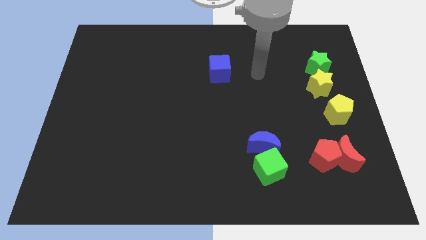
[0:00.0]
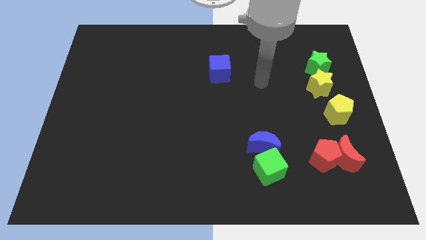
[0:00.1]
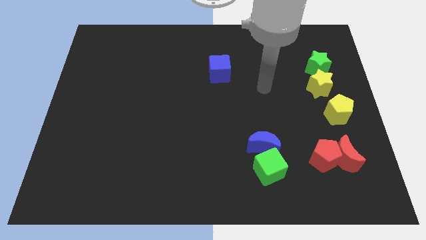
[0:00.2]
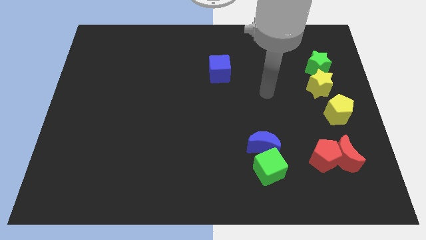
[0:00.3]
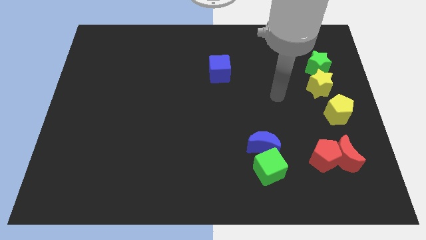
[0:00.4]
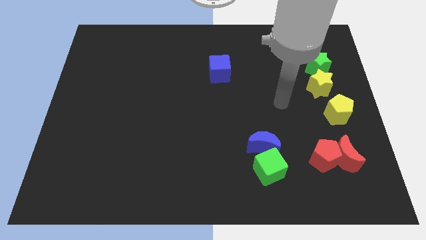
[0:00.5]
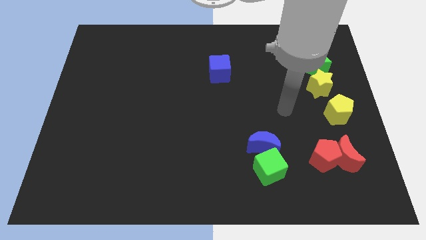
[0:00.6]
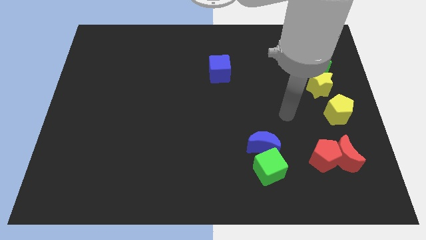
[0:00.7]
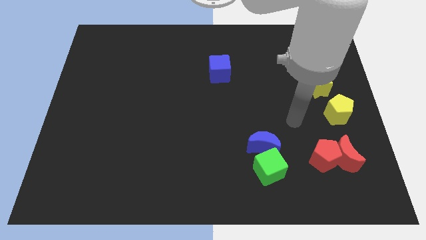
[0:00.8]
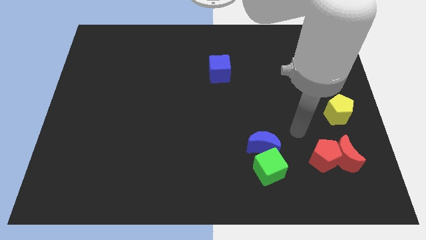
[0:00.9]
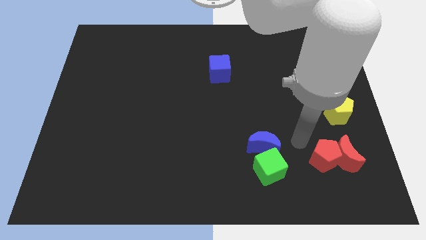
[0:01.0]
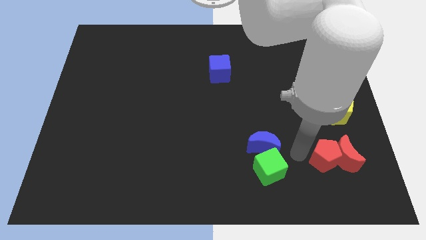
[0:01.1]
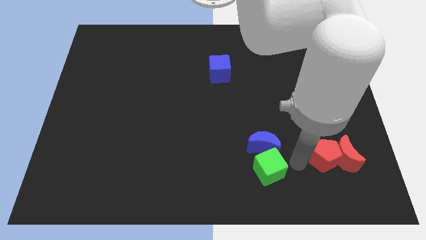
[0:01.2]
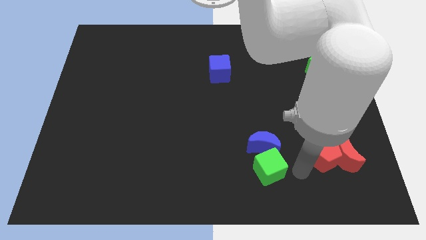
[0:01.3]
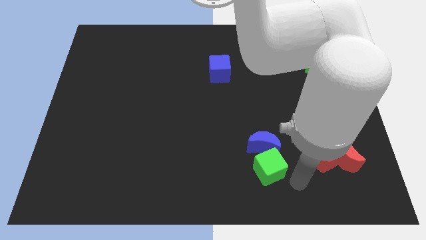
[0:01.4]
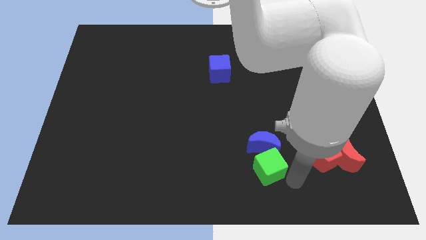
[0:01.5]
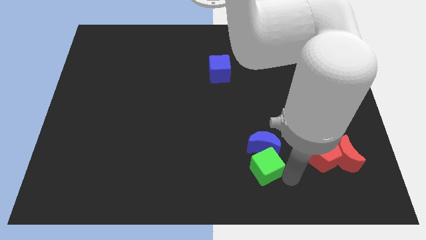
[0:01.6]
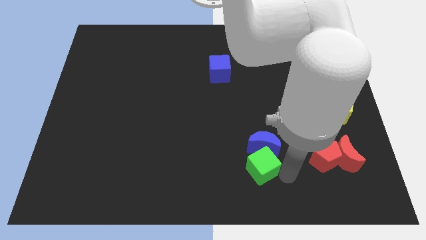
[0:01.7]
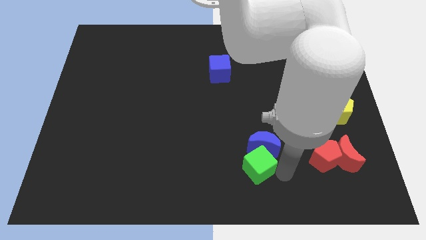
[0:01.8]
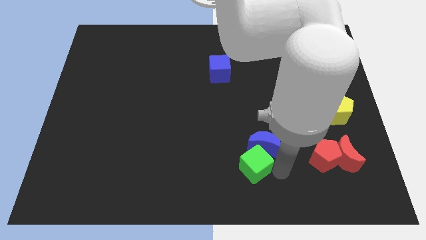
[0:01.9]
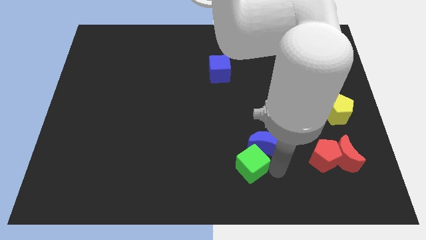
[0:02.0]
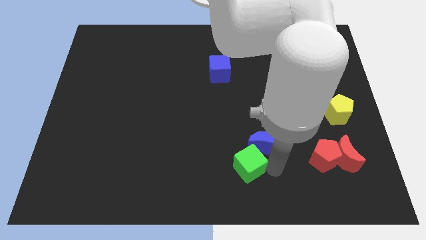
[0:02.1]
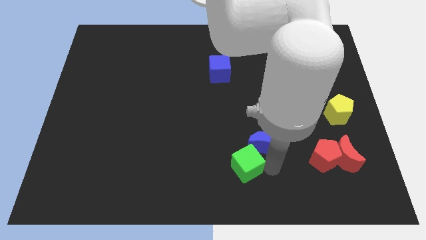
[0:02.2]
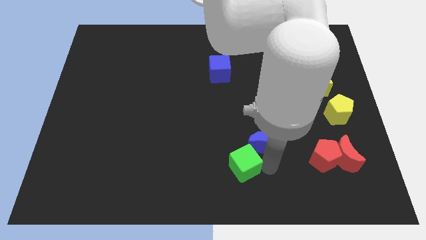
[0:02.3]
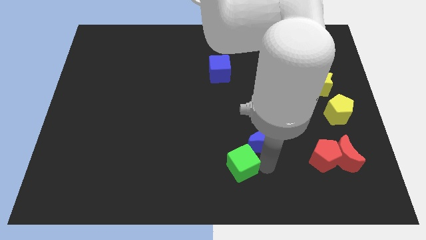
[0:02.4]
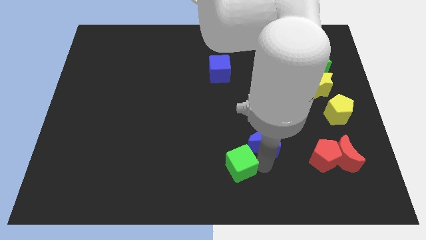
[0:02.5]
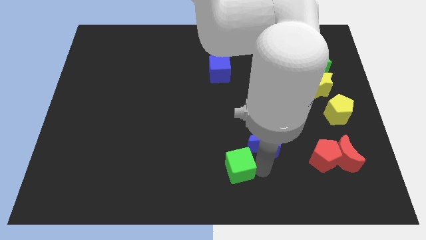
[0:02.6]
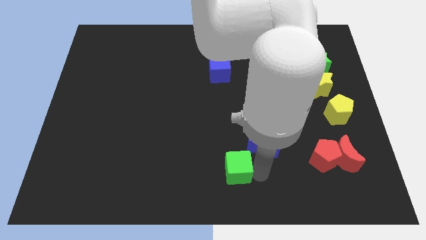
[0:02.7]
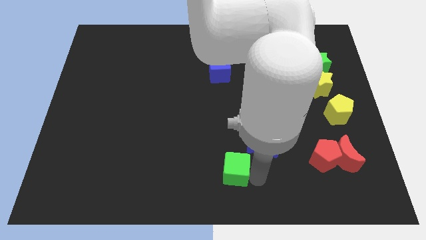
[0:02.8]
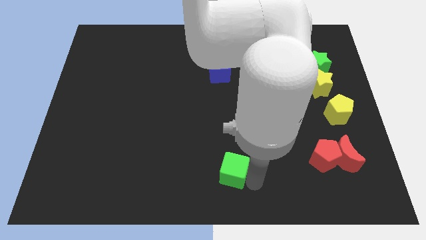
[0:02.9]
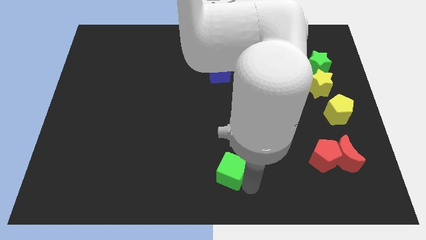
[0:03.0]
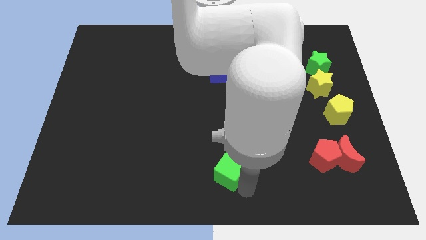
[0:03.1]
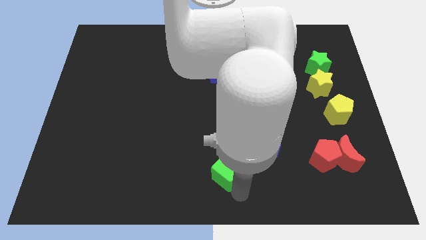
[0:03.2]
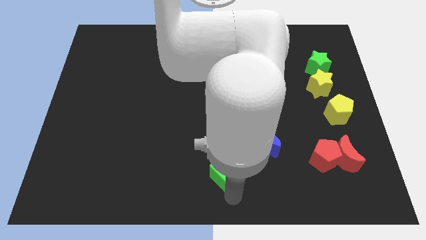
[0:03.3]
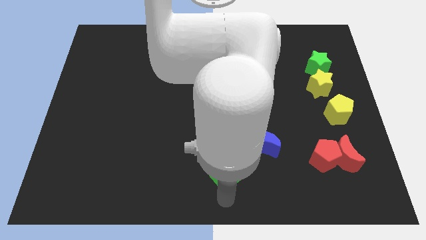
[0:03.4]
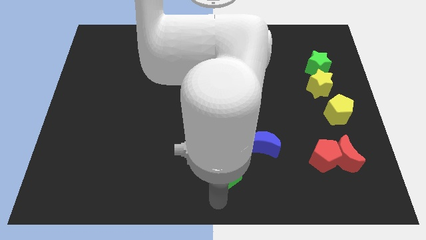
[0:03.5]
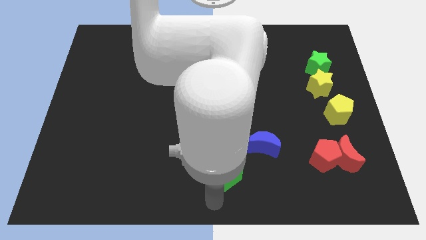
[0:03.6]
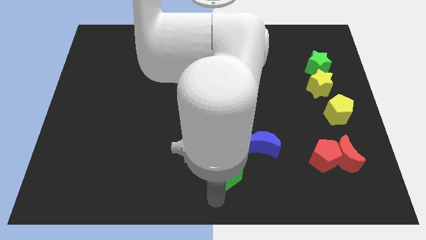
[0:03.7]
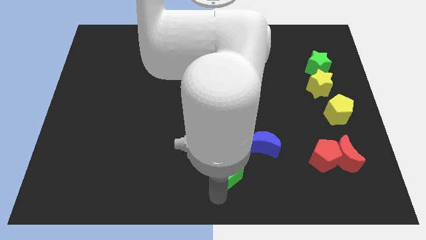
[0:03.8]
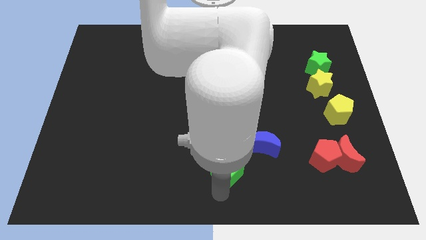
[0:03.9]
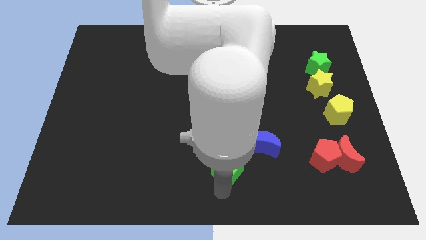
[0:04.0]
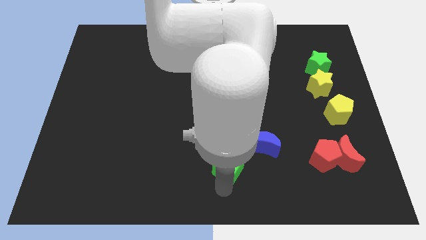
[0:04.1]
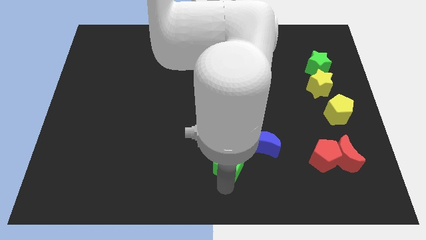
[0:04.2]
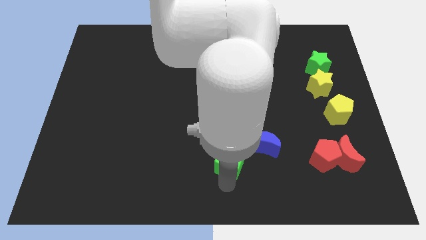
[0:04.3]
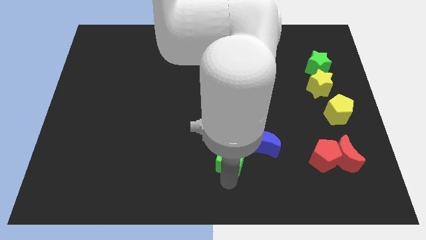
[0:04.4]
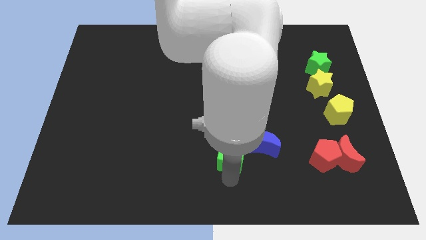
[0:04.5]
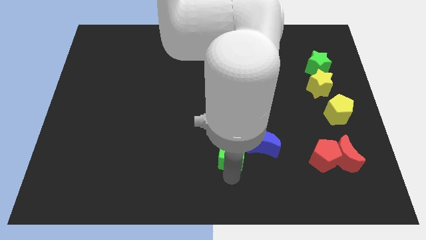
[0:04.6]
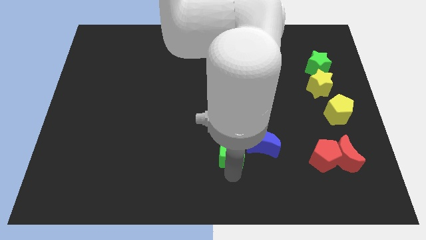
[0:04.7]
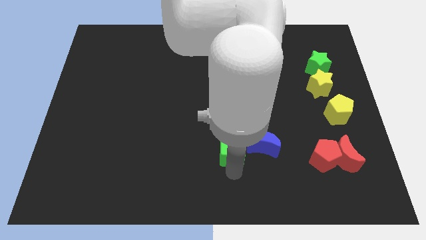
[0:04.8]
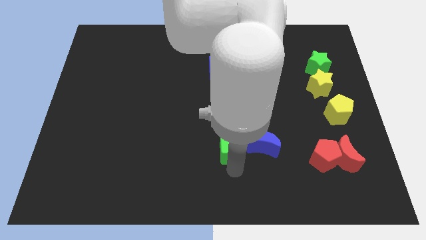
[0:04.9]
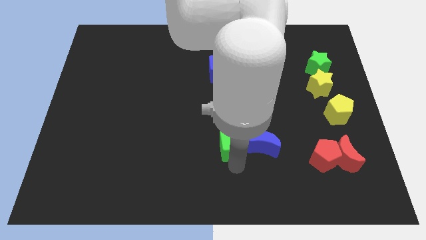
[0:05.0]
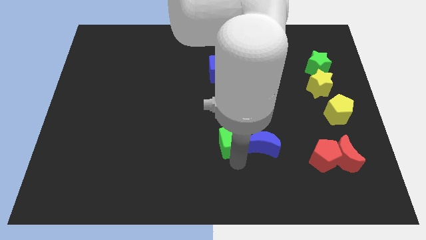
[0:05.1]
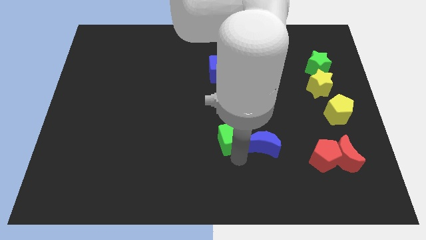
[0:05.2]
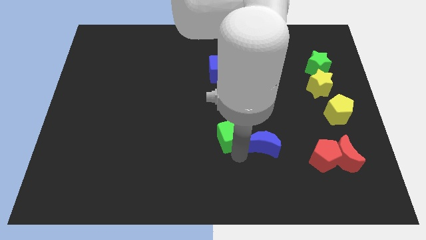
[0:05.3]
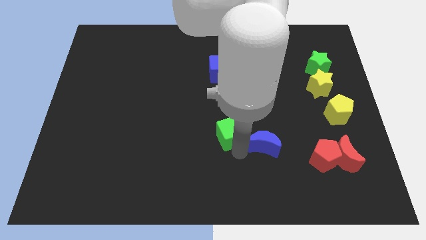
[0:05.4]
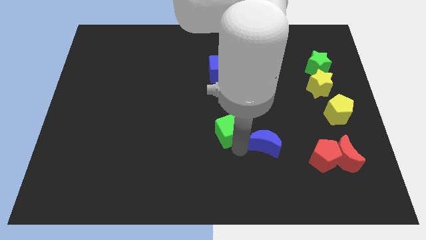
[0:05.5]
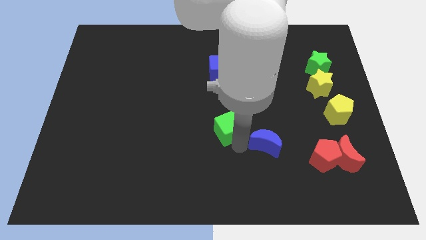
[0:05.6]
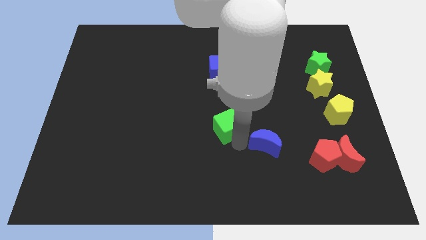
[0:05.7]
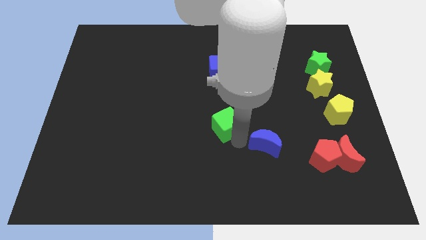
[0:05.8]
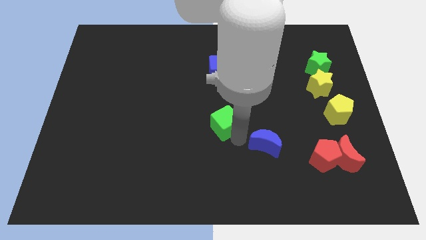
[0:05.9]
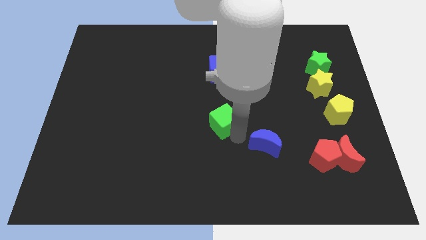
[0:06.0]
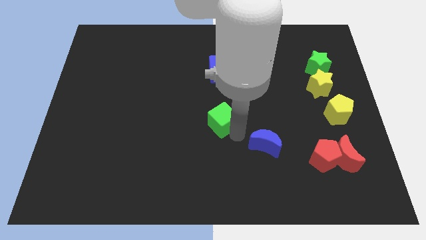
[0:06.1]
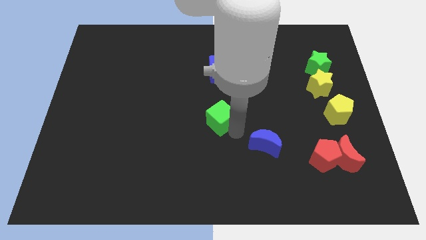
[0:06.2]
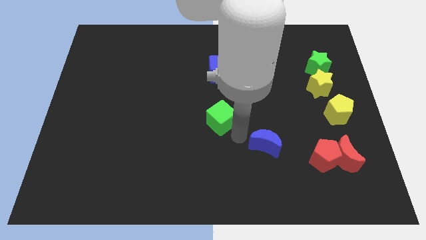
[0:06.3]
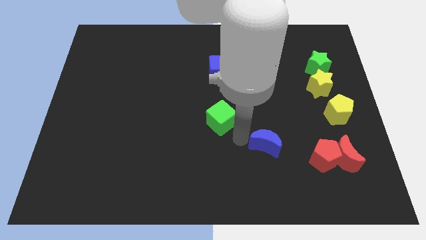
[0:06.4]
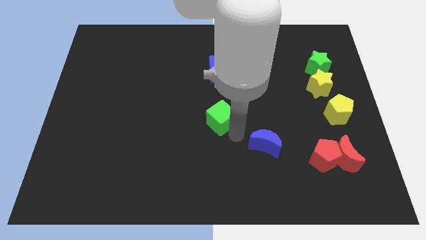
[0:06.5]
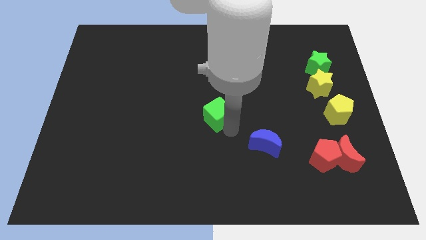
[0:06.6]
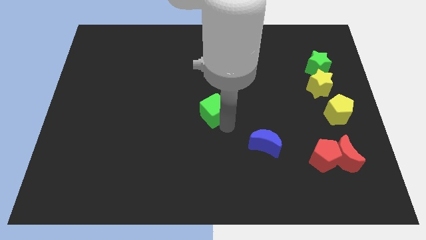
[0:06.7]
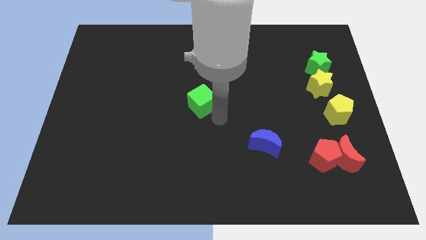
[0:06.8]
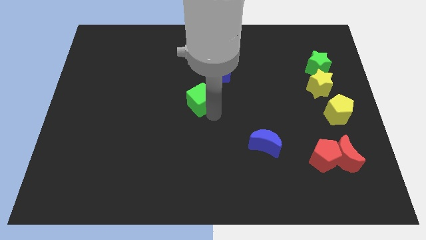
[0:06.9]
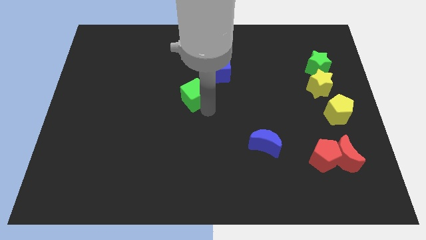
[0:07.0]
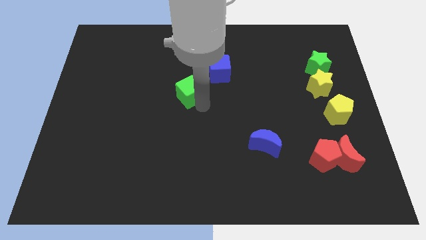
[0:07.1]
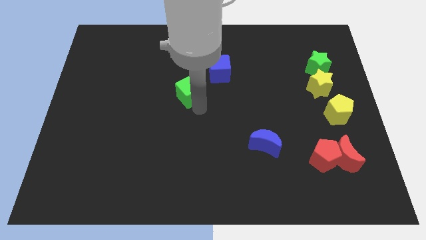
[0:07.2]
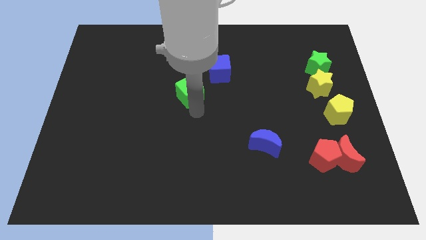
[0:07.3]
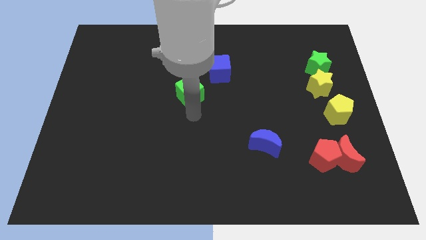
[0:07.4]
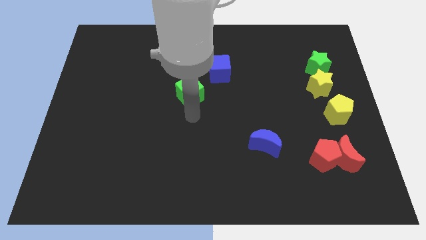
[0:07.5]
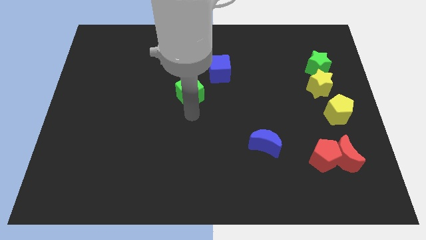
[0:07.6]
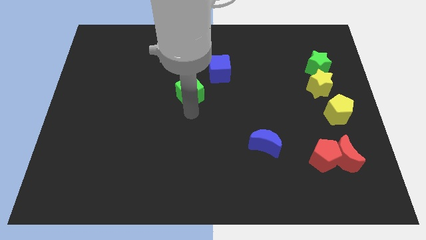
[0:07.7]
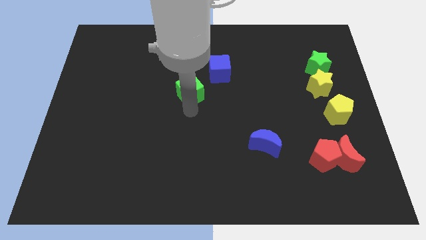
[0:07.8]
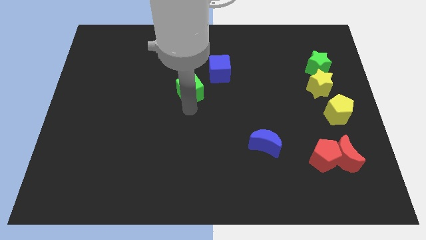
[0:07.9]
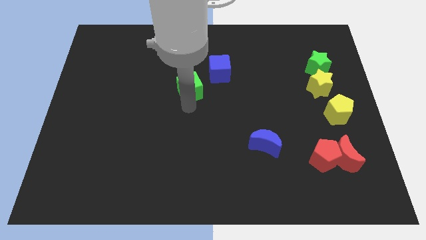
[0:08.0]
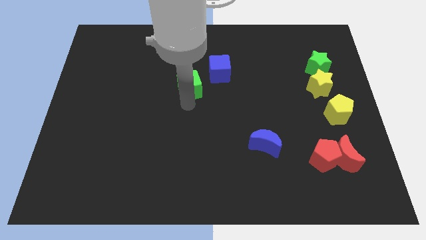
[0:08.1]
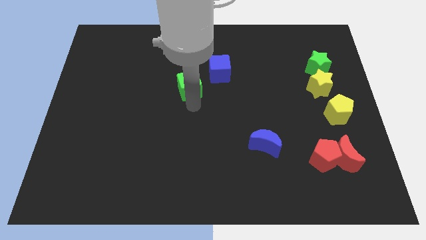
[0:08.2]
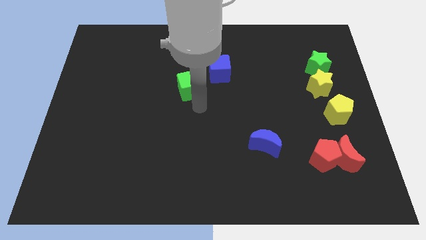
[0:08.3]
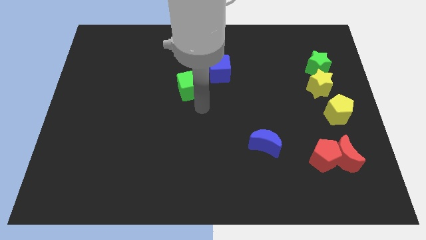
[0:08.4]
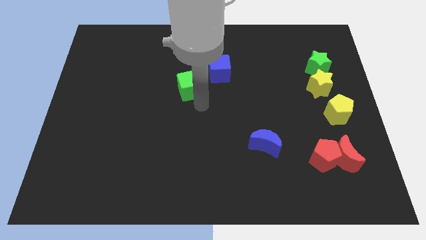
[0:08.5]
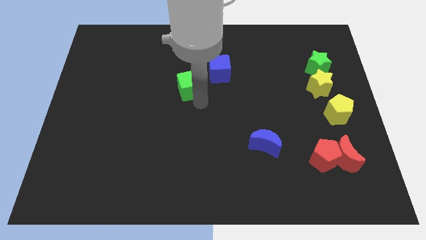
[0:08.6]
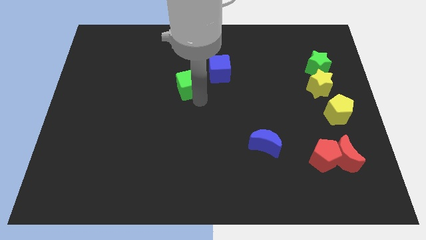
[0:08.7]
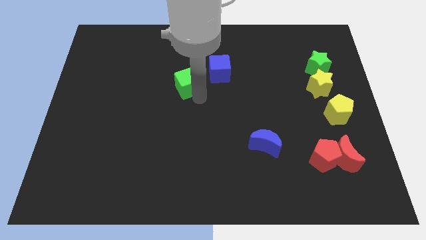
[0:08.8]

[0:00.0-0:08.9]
put the green cube to the left of the blue cube
